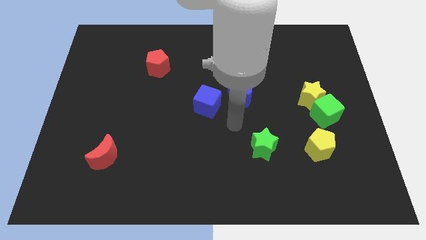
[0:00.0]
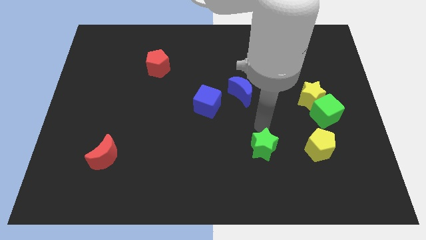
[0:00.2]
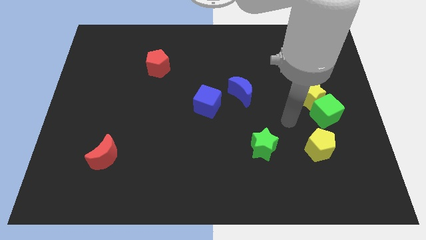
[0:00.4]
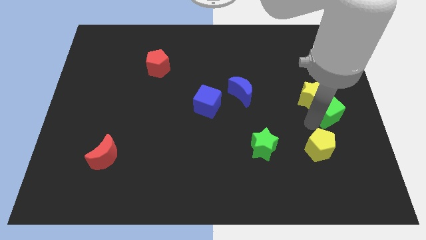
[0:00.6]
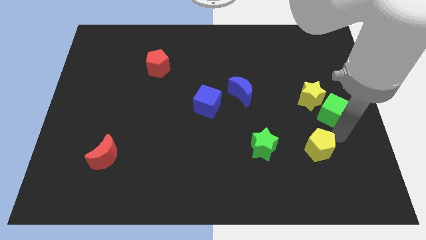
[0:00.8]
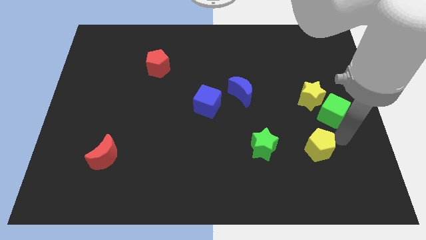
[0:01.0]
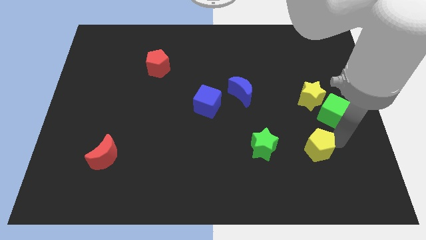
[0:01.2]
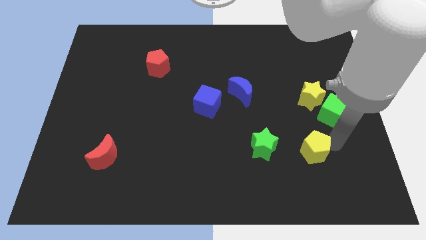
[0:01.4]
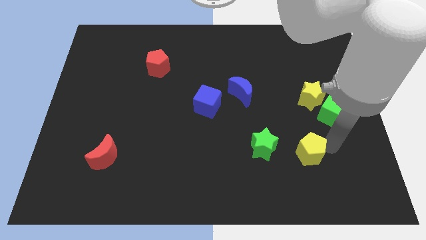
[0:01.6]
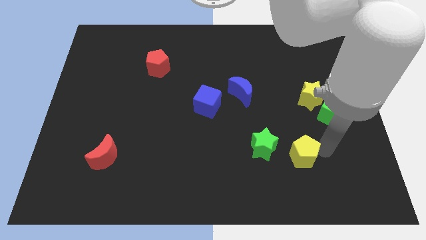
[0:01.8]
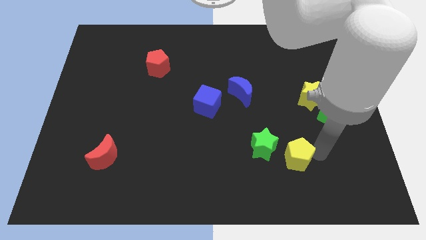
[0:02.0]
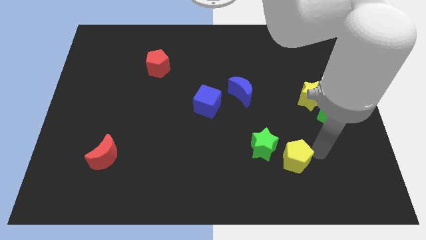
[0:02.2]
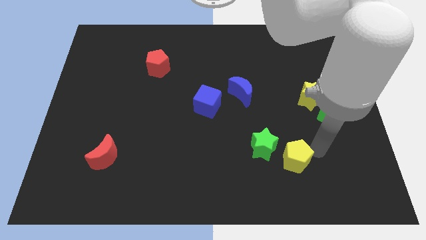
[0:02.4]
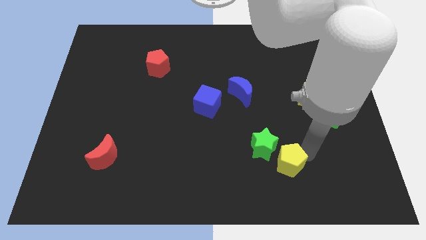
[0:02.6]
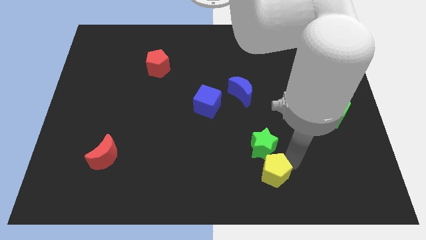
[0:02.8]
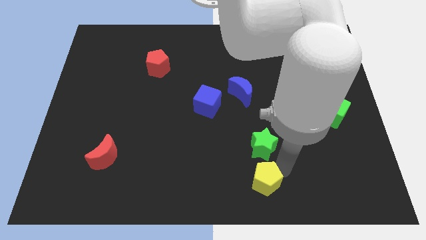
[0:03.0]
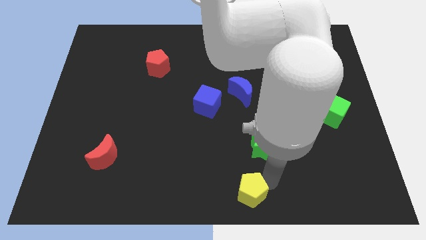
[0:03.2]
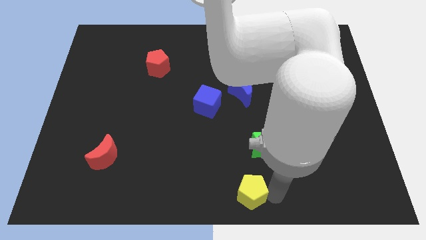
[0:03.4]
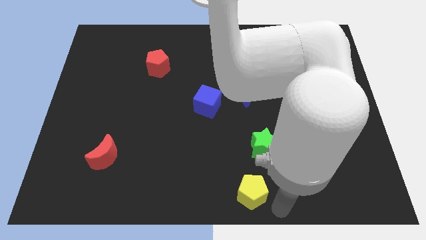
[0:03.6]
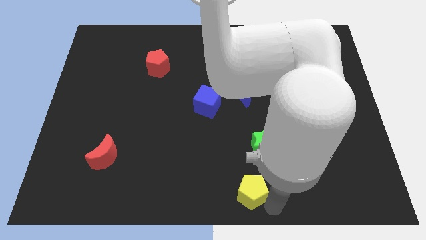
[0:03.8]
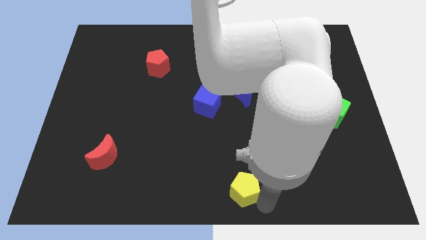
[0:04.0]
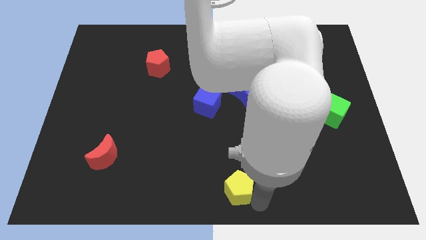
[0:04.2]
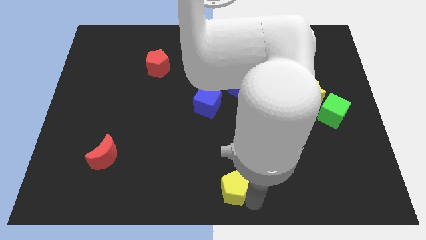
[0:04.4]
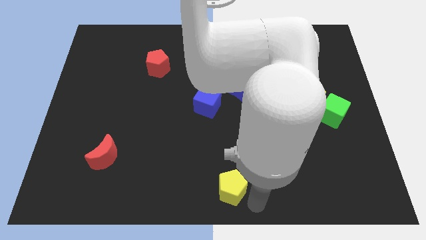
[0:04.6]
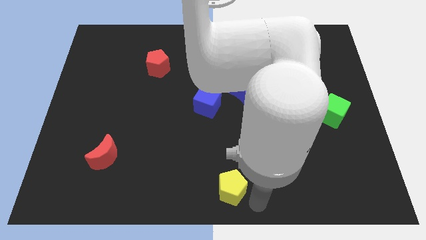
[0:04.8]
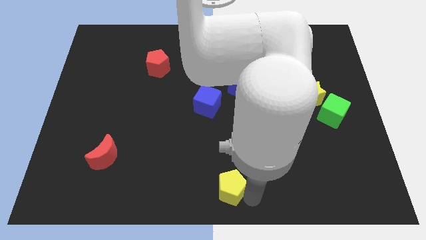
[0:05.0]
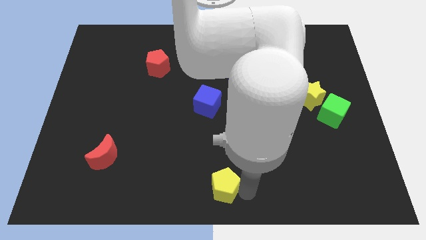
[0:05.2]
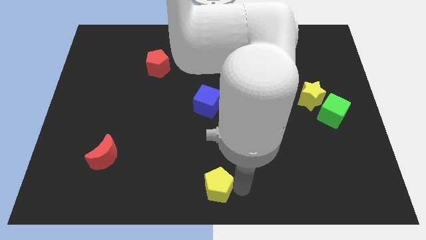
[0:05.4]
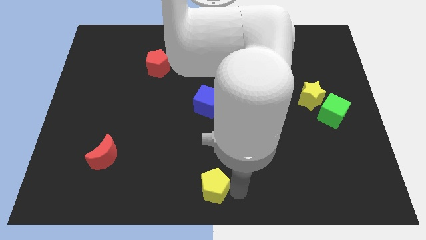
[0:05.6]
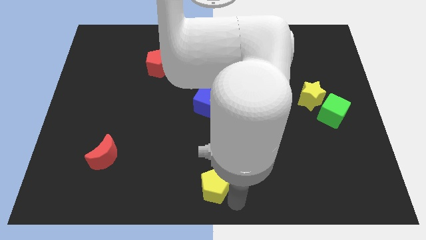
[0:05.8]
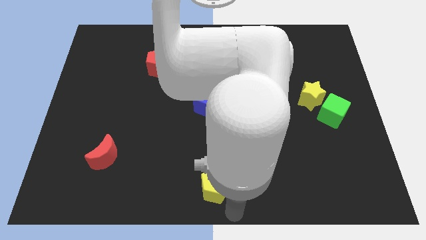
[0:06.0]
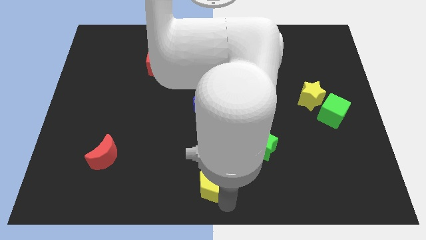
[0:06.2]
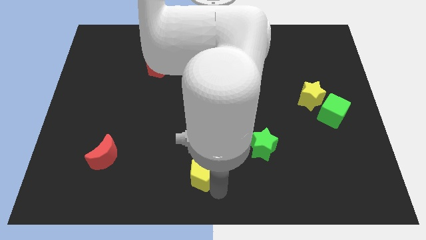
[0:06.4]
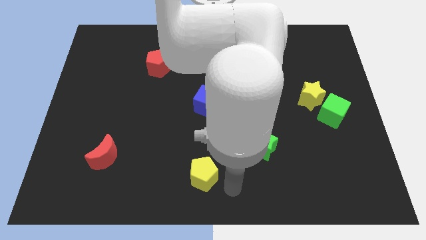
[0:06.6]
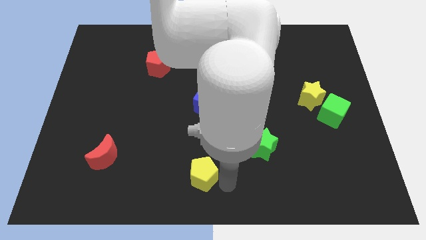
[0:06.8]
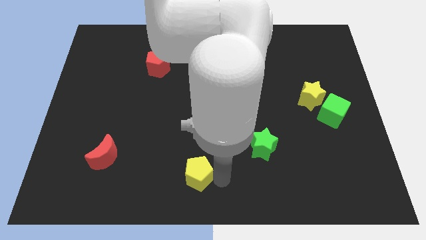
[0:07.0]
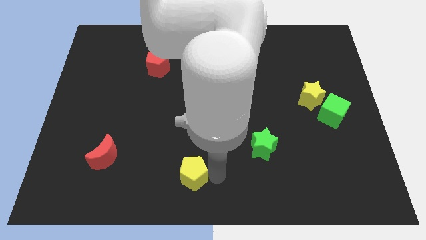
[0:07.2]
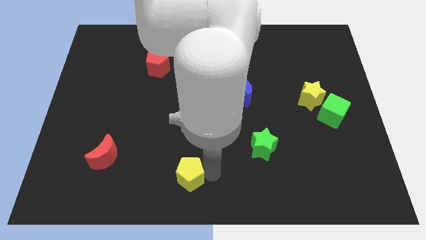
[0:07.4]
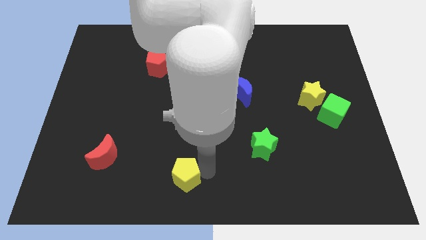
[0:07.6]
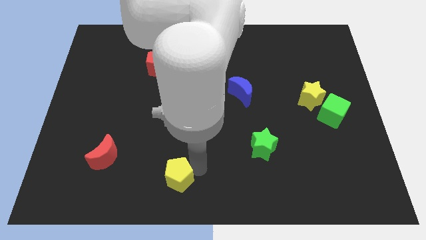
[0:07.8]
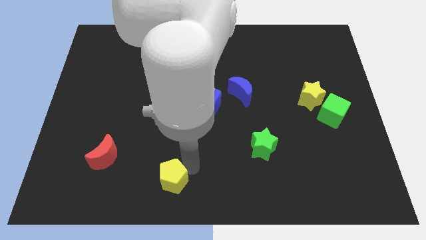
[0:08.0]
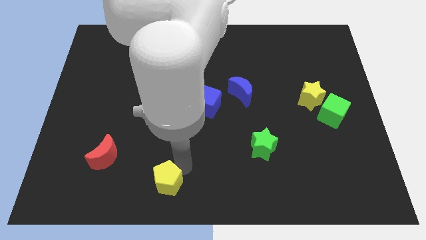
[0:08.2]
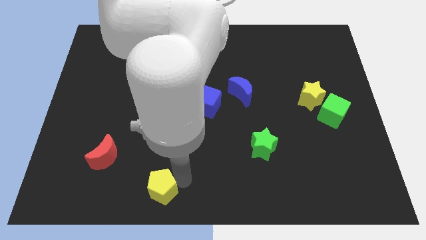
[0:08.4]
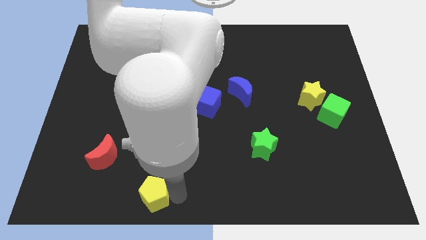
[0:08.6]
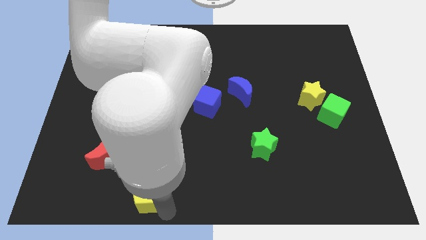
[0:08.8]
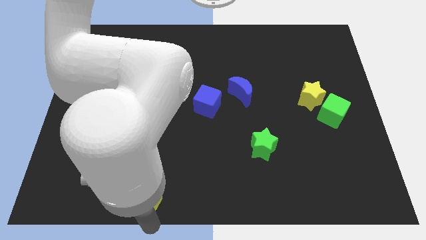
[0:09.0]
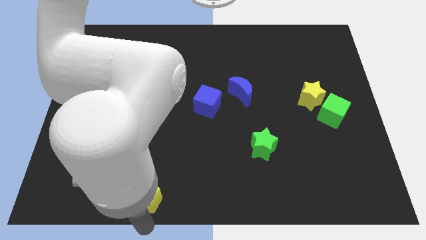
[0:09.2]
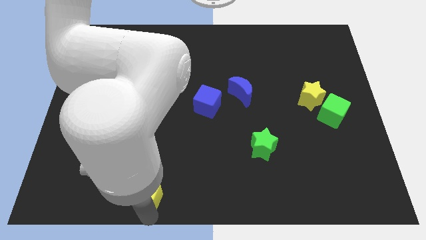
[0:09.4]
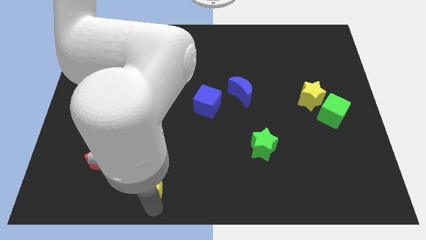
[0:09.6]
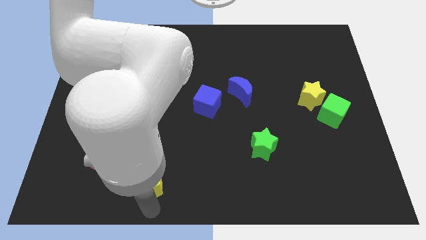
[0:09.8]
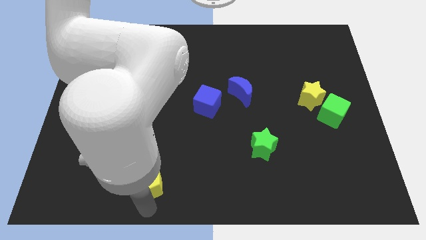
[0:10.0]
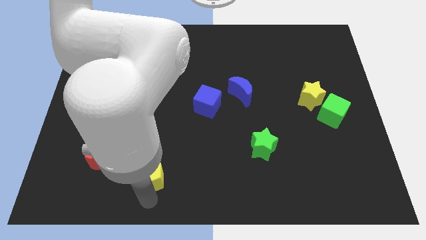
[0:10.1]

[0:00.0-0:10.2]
slide the yellow pentagon just right of the red moon

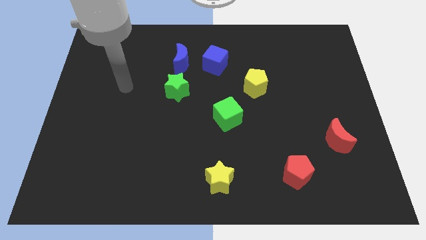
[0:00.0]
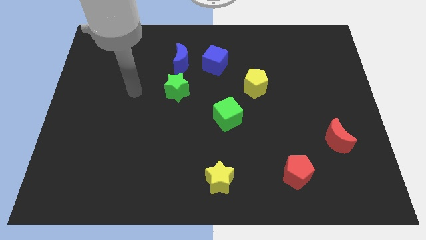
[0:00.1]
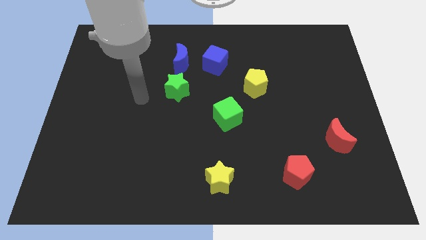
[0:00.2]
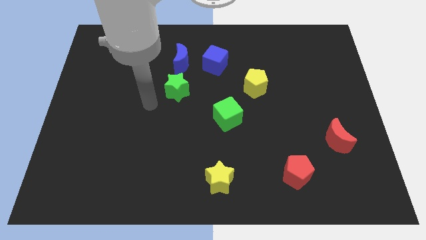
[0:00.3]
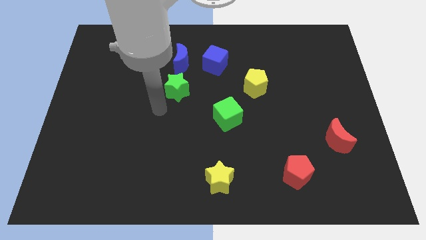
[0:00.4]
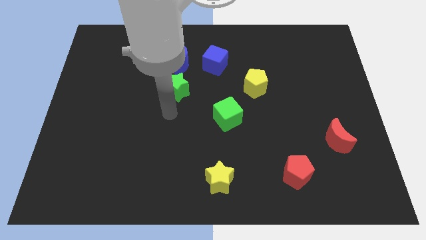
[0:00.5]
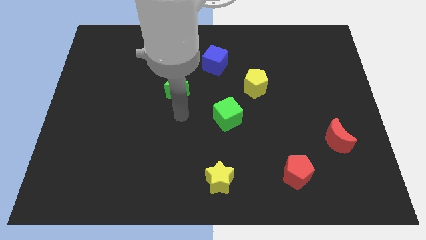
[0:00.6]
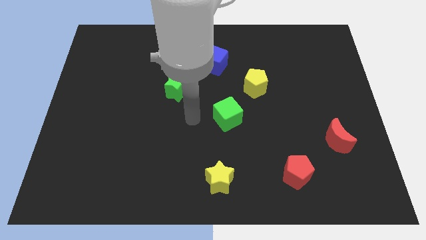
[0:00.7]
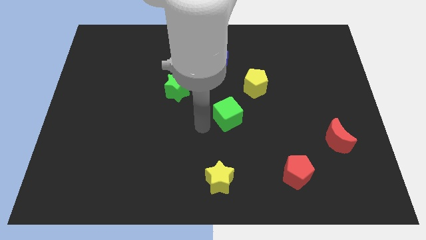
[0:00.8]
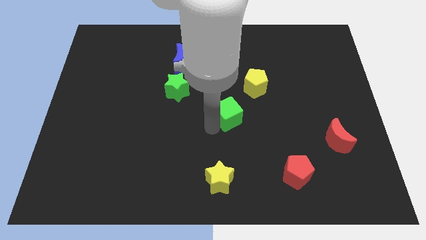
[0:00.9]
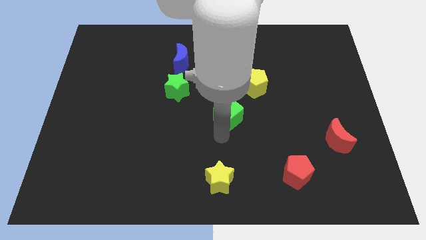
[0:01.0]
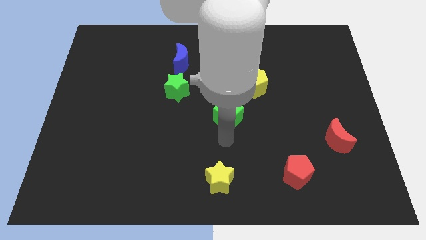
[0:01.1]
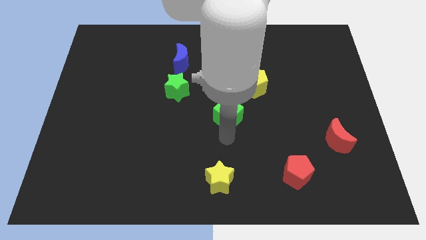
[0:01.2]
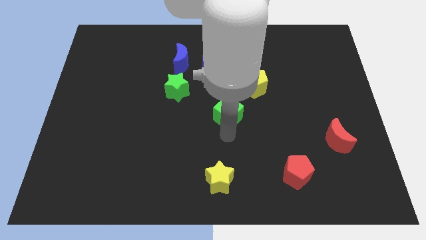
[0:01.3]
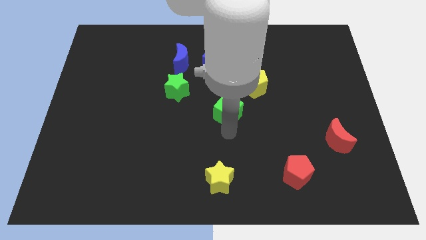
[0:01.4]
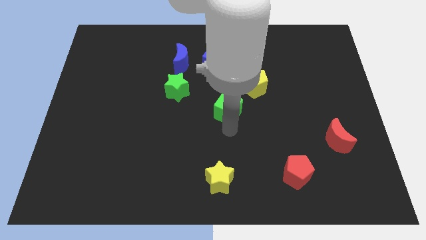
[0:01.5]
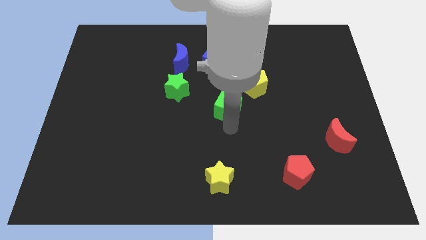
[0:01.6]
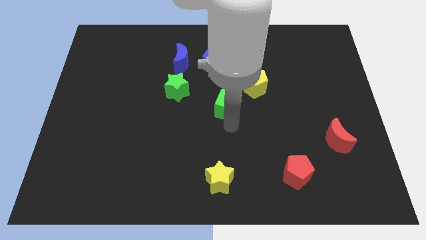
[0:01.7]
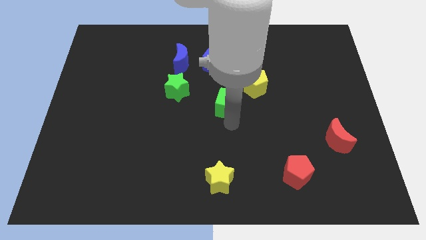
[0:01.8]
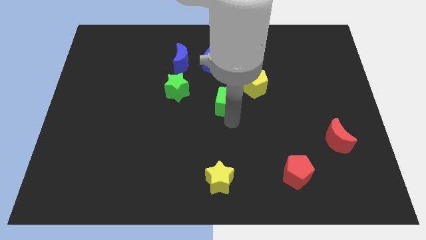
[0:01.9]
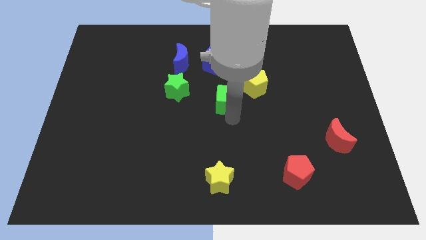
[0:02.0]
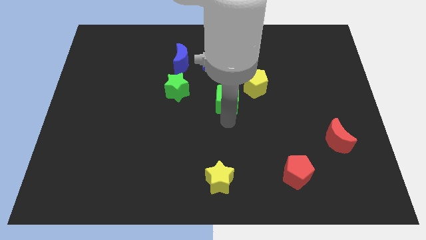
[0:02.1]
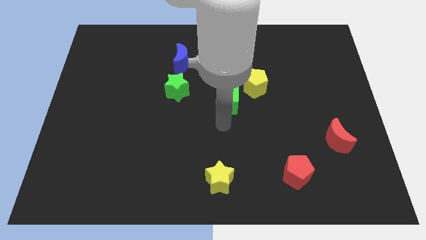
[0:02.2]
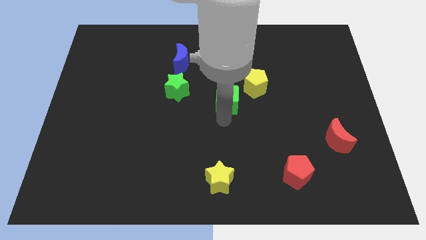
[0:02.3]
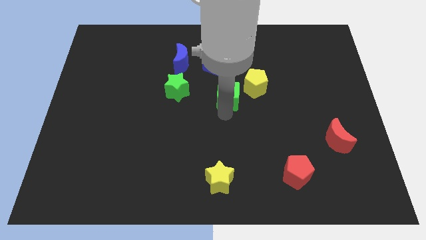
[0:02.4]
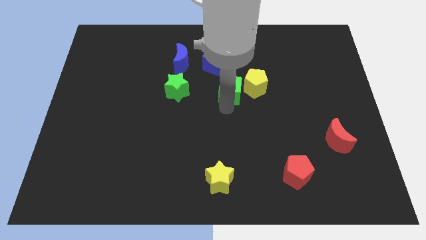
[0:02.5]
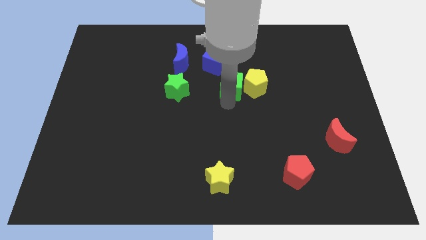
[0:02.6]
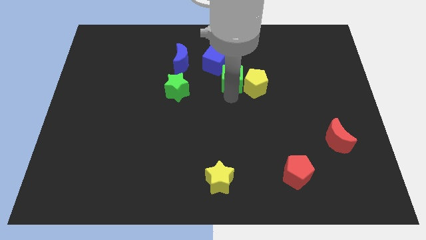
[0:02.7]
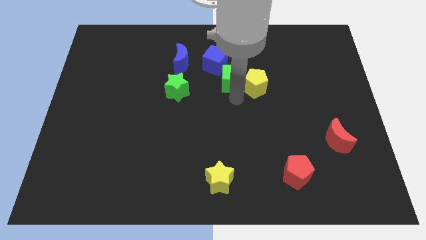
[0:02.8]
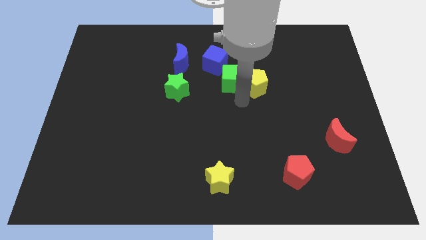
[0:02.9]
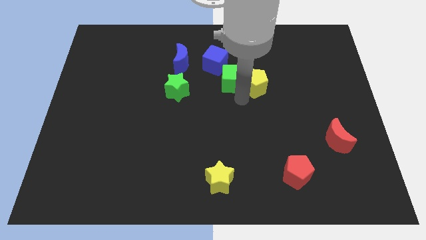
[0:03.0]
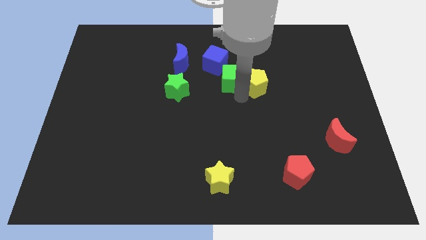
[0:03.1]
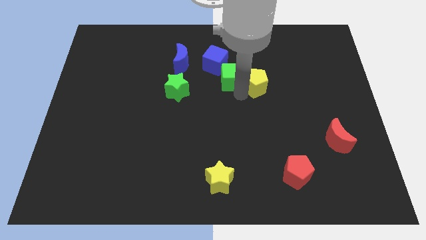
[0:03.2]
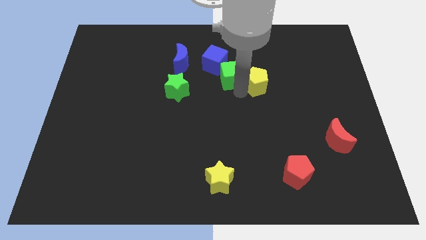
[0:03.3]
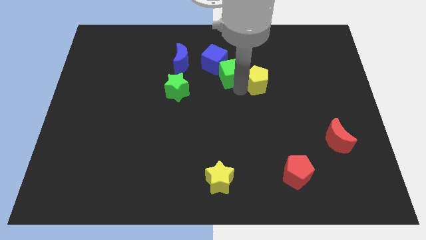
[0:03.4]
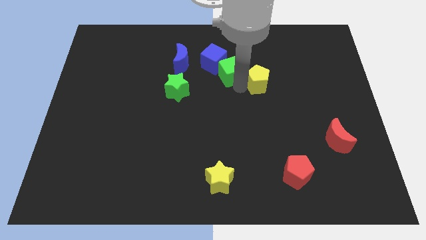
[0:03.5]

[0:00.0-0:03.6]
slide the green cube just right of the blue moon
